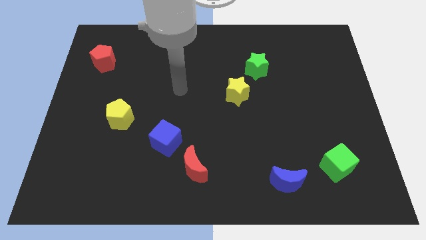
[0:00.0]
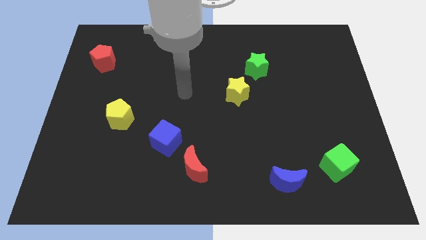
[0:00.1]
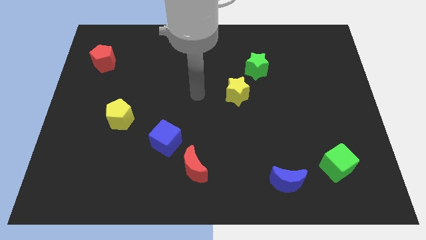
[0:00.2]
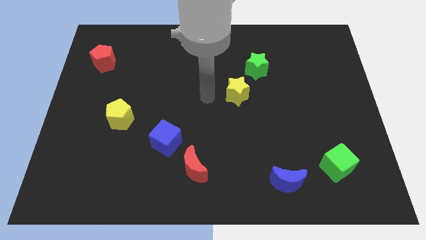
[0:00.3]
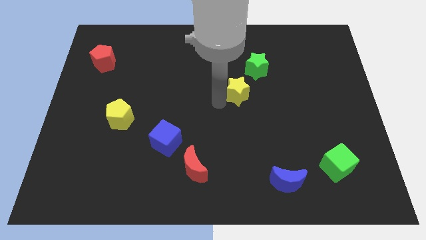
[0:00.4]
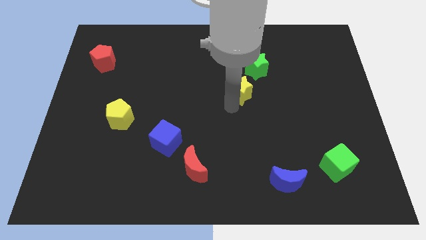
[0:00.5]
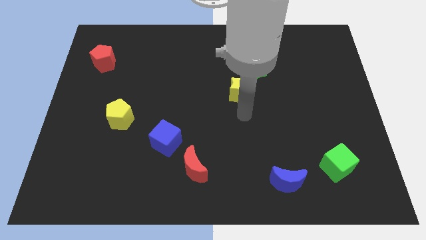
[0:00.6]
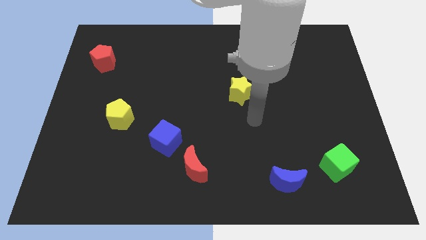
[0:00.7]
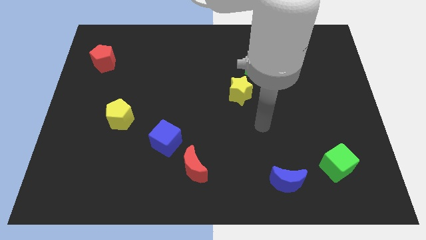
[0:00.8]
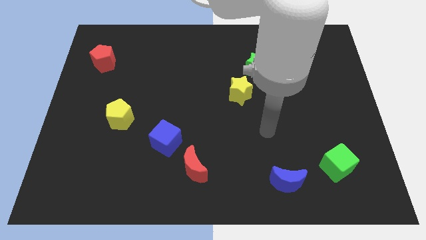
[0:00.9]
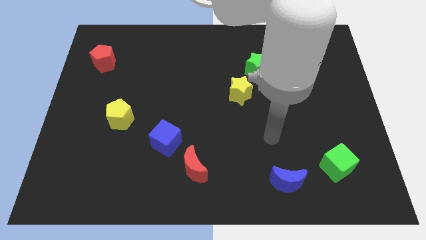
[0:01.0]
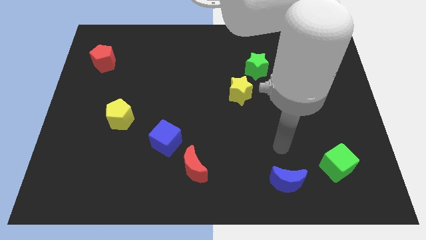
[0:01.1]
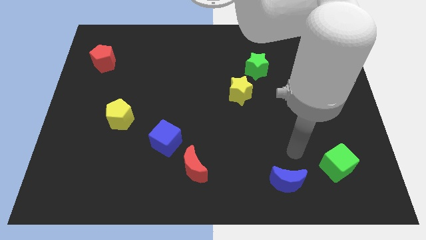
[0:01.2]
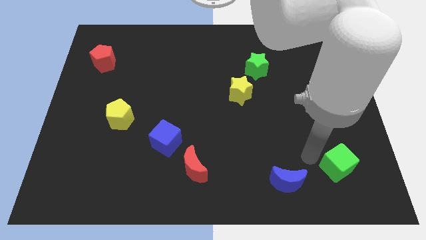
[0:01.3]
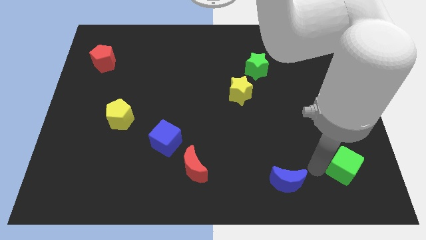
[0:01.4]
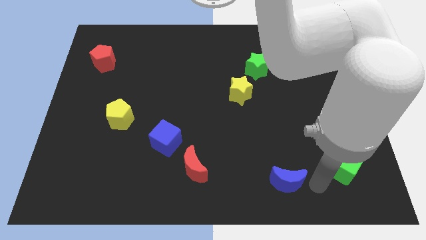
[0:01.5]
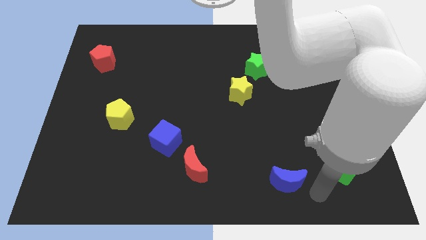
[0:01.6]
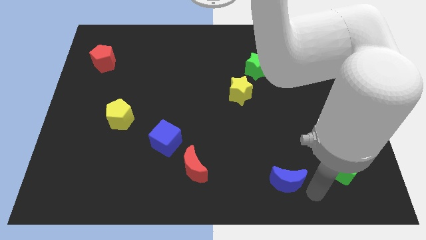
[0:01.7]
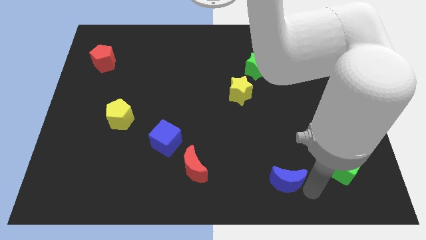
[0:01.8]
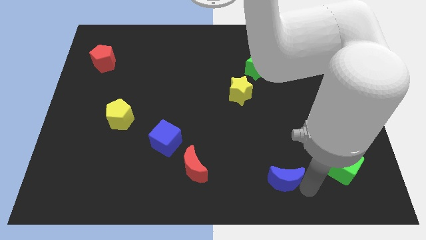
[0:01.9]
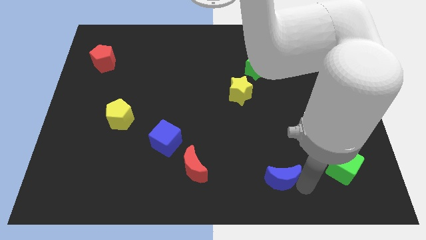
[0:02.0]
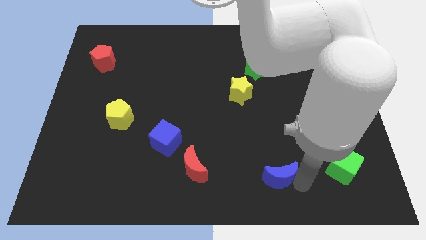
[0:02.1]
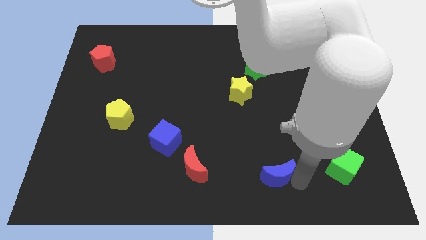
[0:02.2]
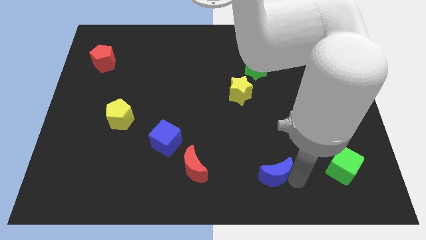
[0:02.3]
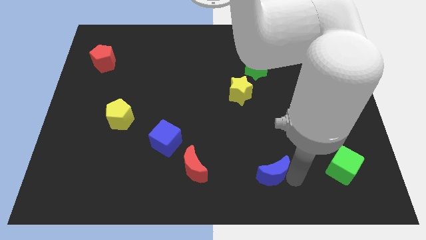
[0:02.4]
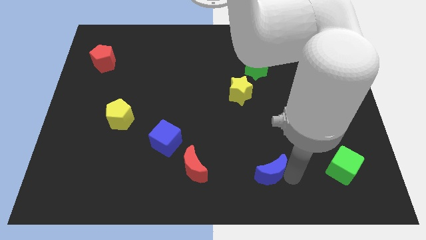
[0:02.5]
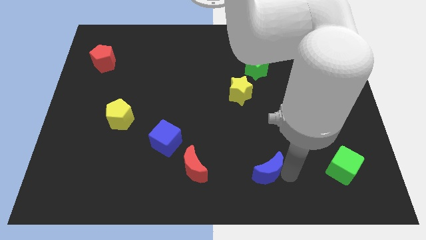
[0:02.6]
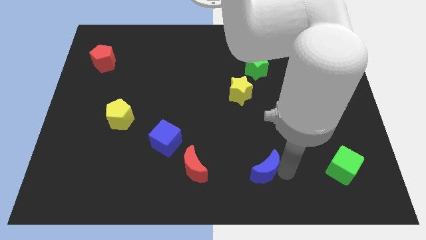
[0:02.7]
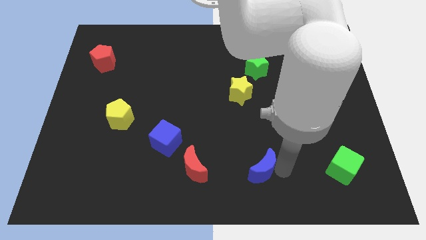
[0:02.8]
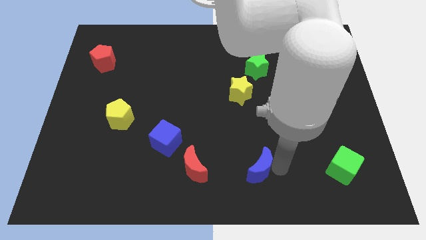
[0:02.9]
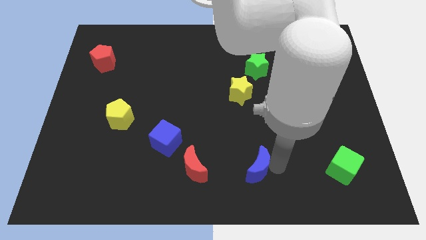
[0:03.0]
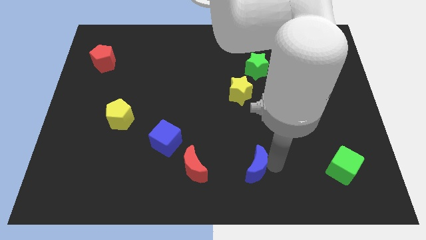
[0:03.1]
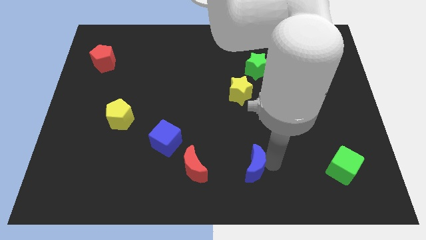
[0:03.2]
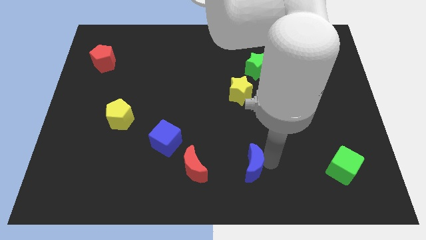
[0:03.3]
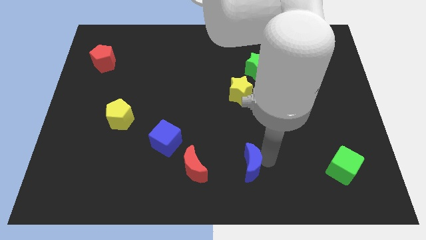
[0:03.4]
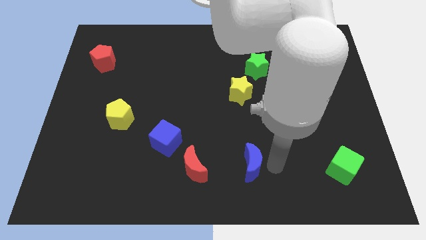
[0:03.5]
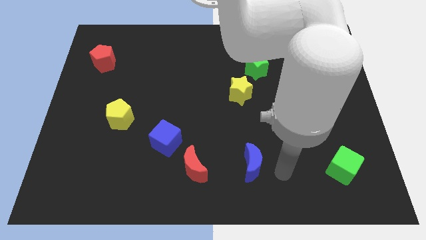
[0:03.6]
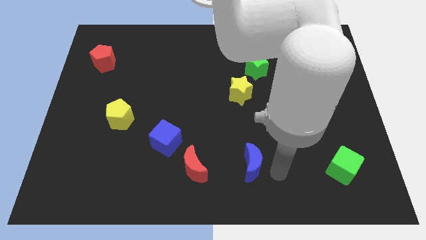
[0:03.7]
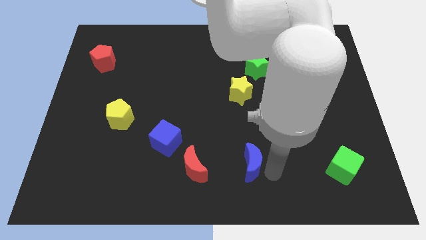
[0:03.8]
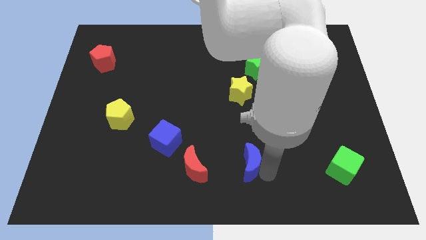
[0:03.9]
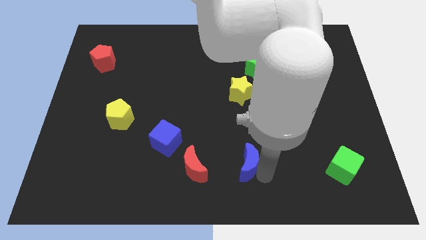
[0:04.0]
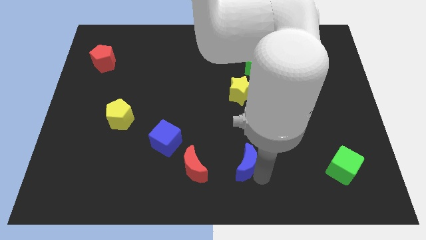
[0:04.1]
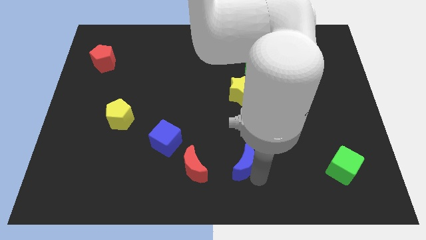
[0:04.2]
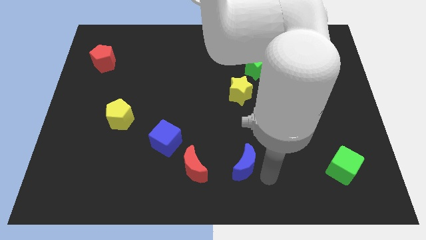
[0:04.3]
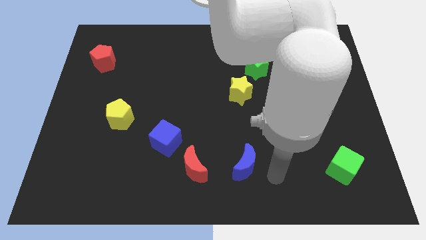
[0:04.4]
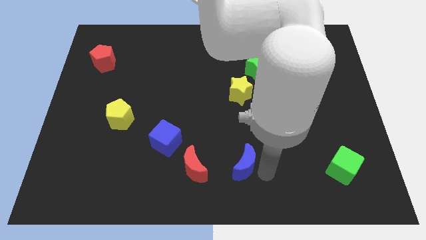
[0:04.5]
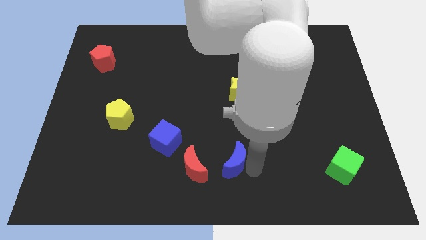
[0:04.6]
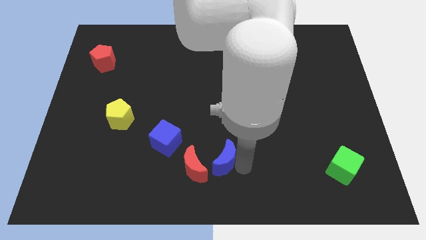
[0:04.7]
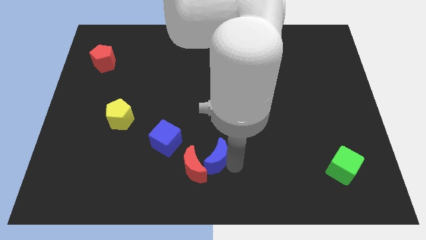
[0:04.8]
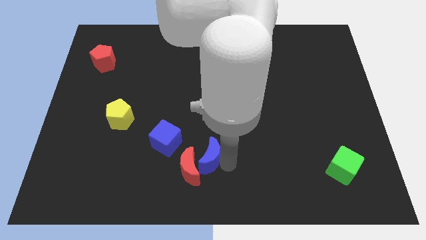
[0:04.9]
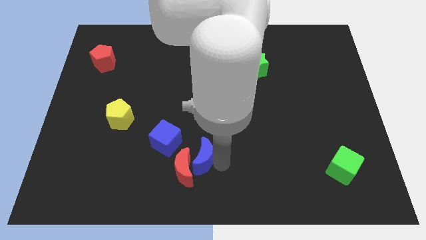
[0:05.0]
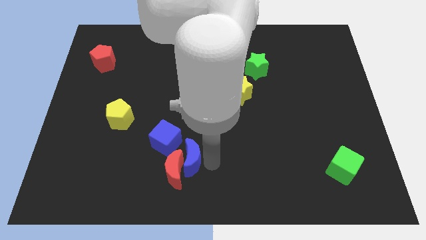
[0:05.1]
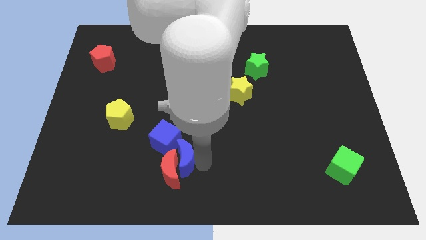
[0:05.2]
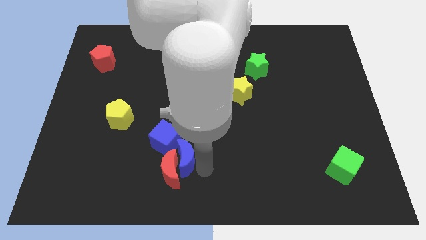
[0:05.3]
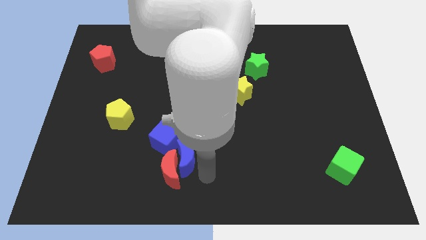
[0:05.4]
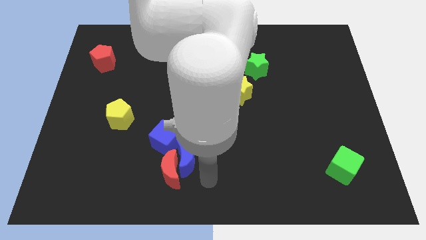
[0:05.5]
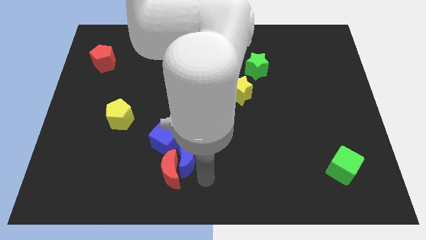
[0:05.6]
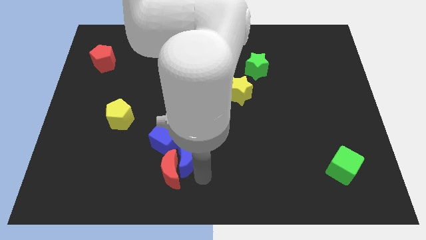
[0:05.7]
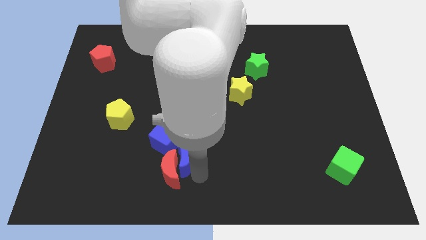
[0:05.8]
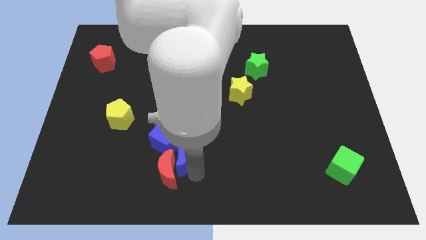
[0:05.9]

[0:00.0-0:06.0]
push the blue moon close to the blue cube

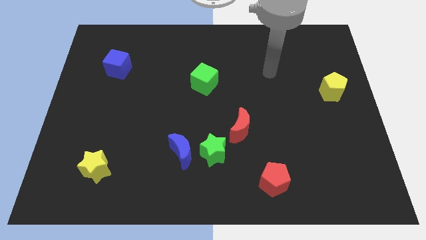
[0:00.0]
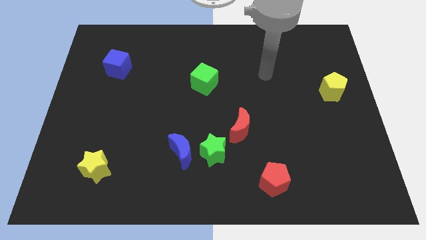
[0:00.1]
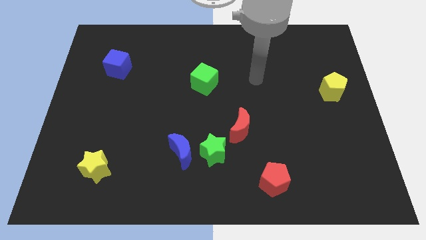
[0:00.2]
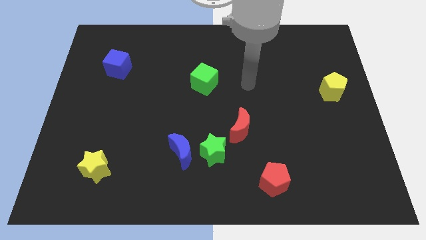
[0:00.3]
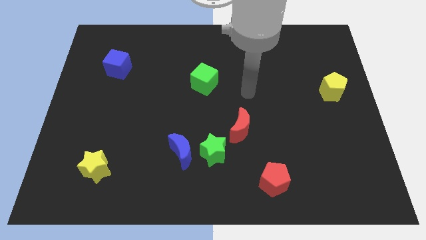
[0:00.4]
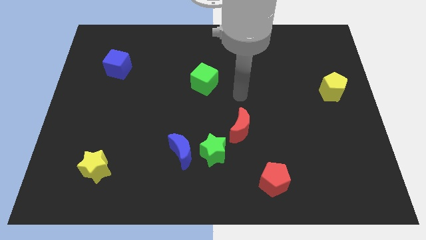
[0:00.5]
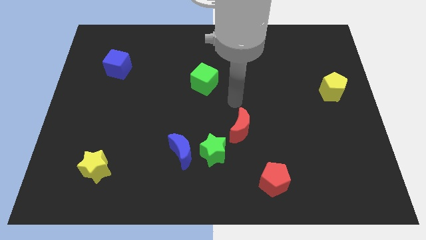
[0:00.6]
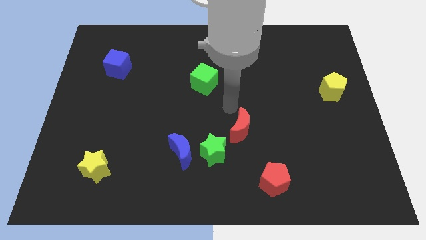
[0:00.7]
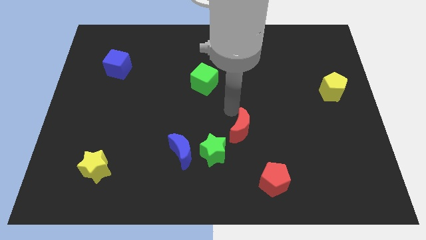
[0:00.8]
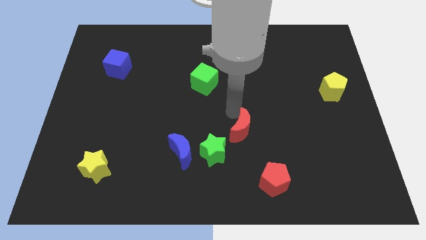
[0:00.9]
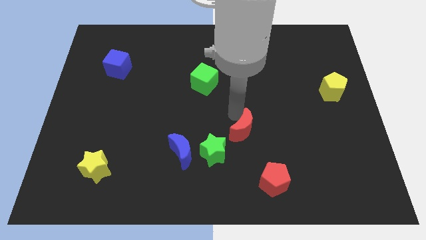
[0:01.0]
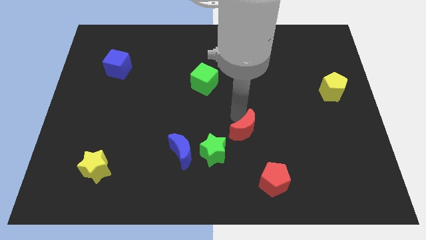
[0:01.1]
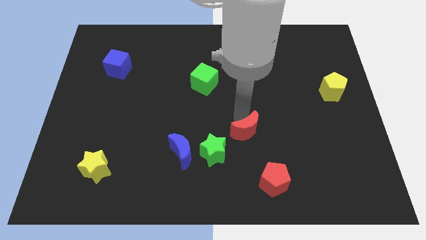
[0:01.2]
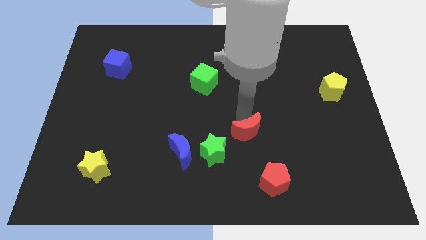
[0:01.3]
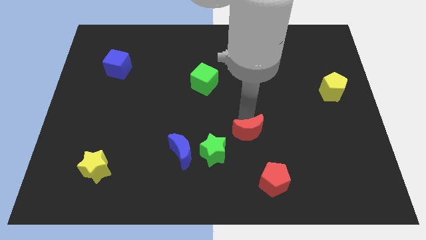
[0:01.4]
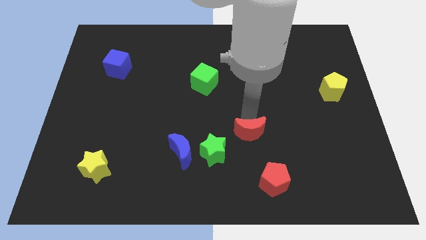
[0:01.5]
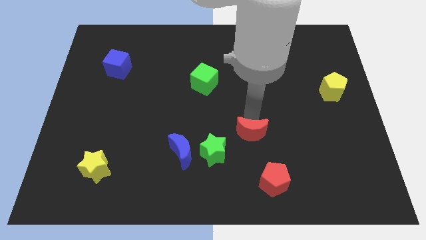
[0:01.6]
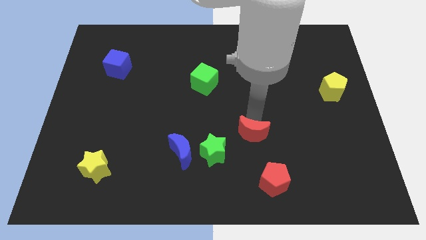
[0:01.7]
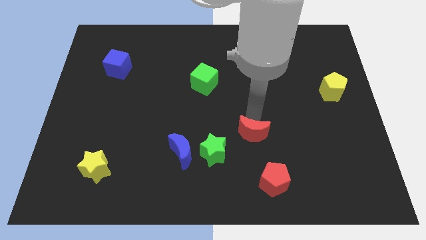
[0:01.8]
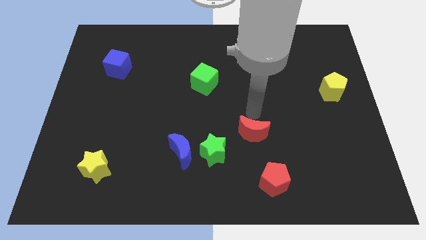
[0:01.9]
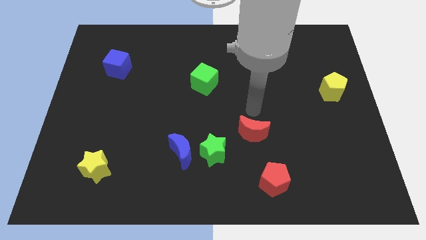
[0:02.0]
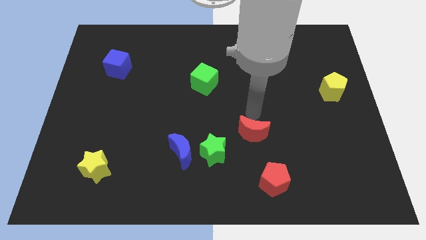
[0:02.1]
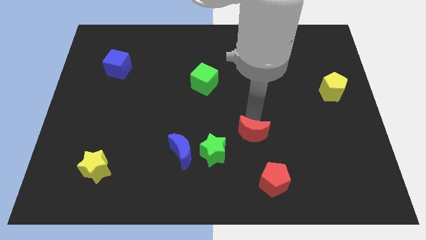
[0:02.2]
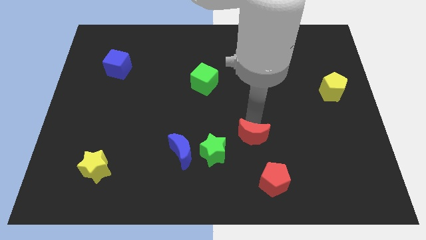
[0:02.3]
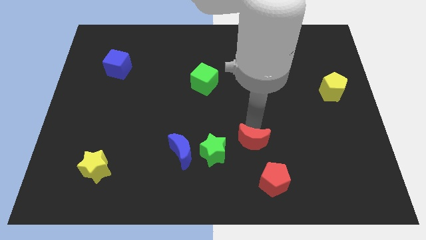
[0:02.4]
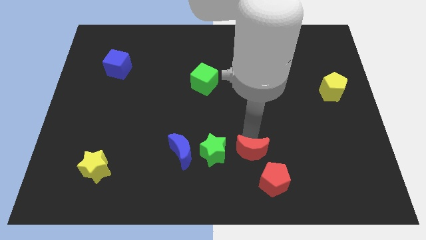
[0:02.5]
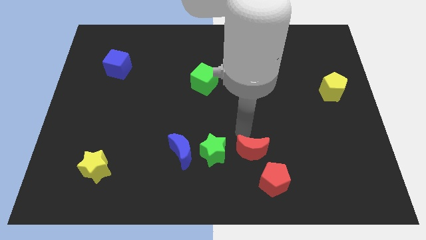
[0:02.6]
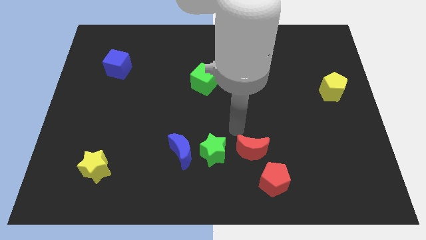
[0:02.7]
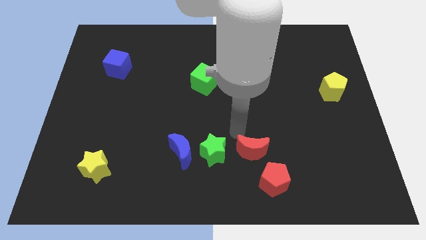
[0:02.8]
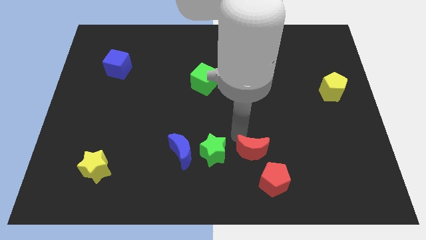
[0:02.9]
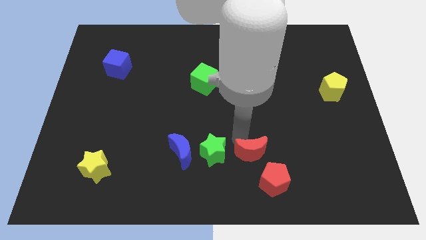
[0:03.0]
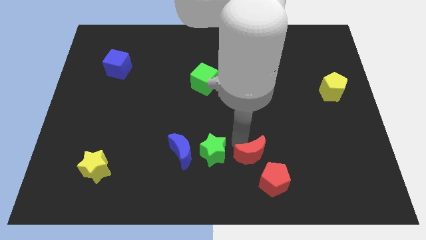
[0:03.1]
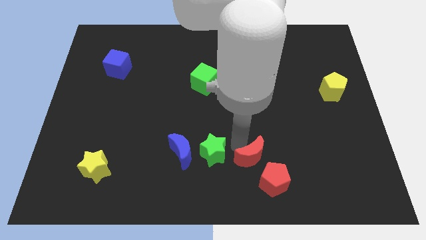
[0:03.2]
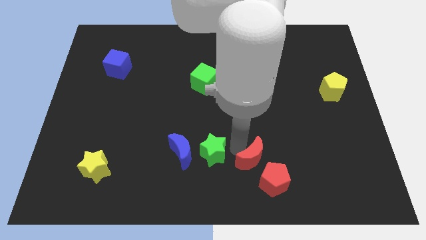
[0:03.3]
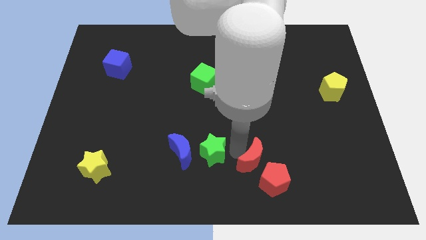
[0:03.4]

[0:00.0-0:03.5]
slide the red moon towards the red pentagon
